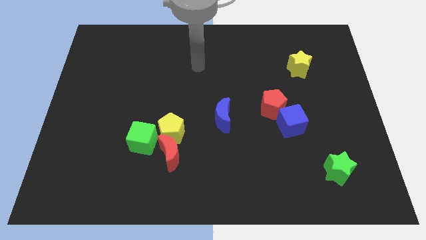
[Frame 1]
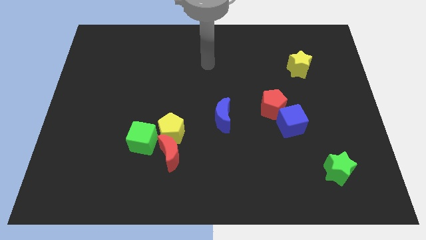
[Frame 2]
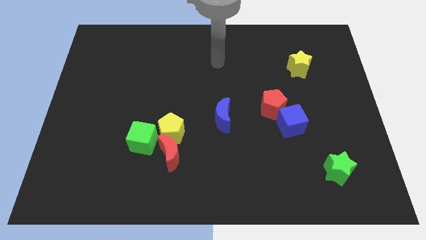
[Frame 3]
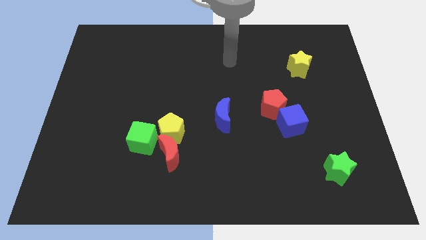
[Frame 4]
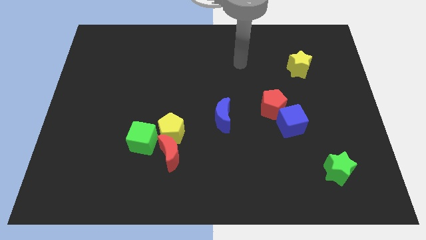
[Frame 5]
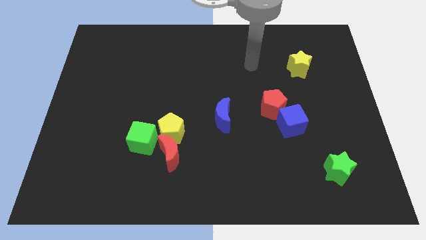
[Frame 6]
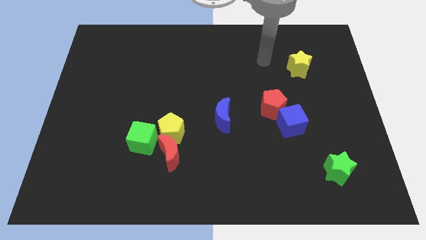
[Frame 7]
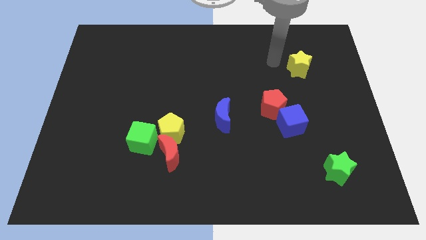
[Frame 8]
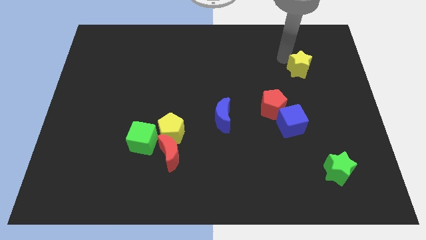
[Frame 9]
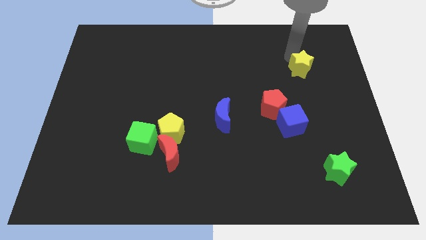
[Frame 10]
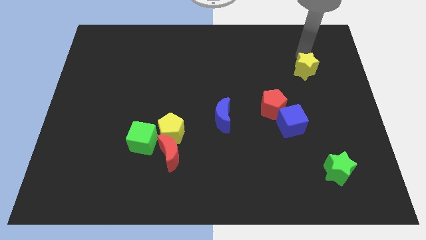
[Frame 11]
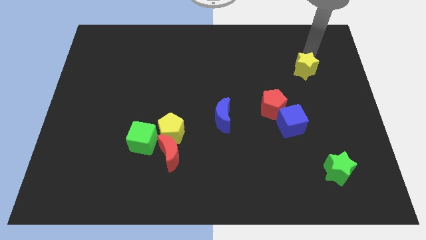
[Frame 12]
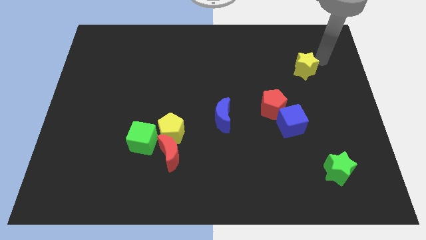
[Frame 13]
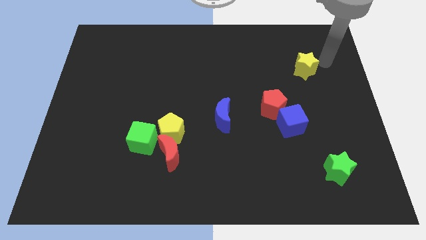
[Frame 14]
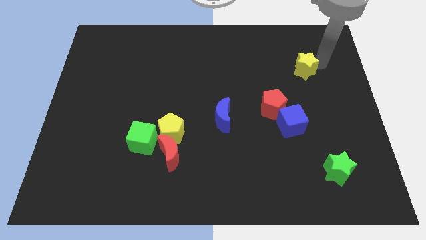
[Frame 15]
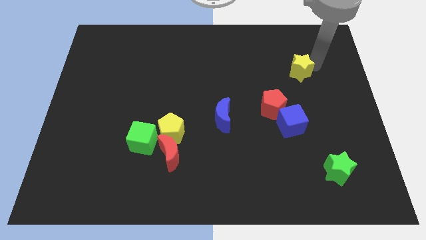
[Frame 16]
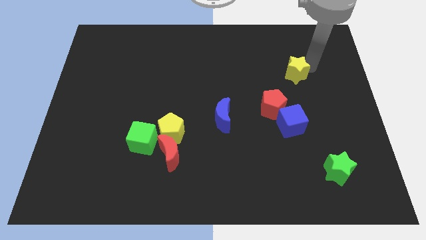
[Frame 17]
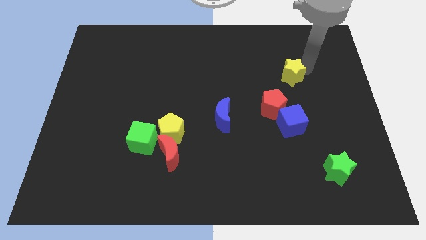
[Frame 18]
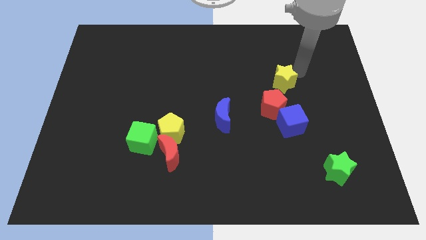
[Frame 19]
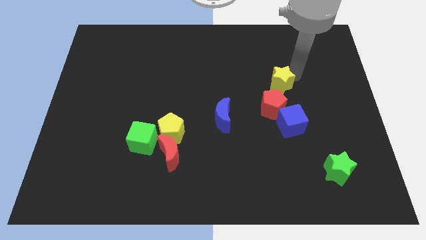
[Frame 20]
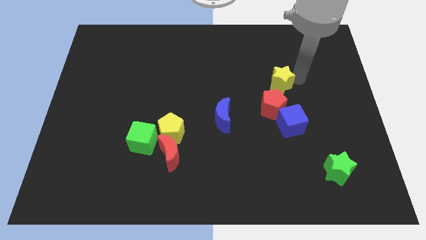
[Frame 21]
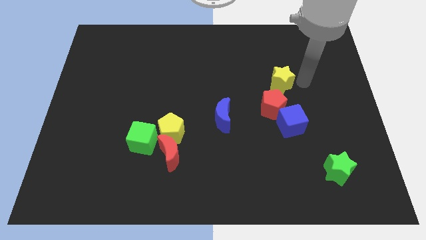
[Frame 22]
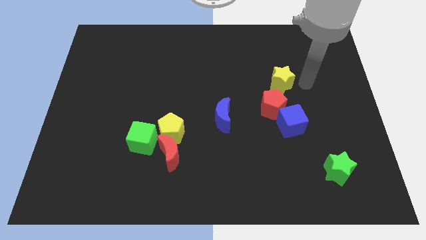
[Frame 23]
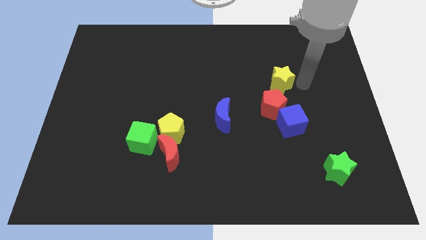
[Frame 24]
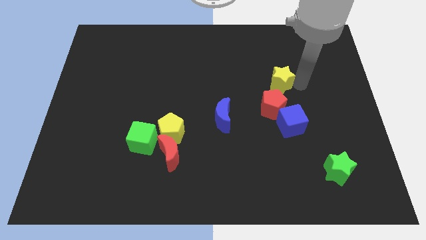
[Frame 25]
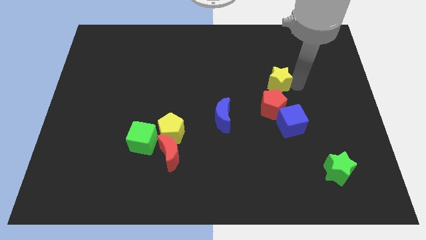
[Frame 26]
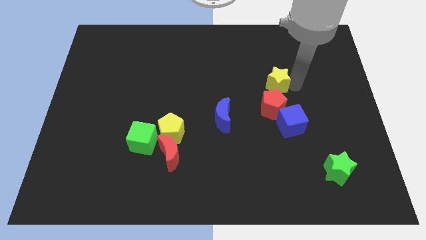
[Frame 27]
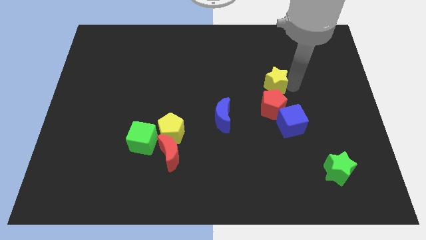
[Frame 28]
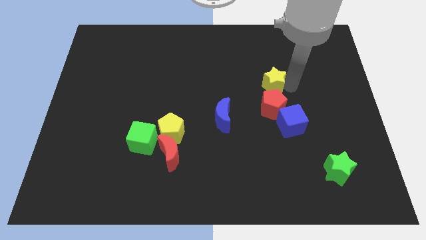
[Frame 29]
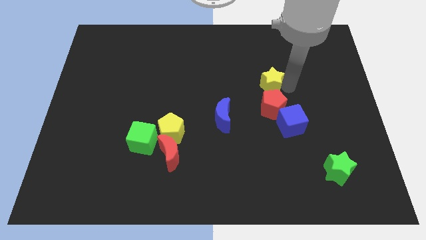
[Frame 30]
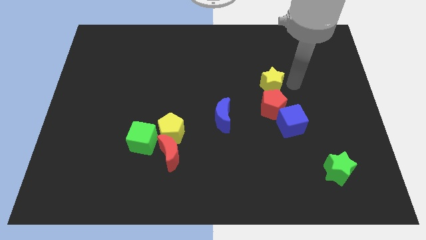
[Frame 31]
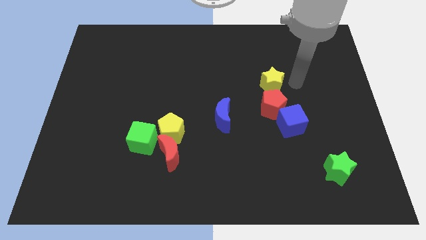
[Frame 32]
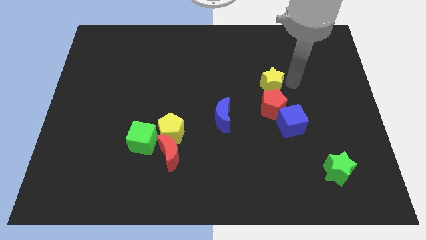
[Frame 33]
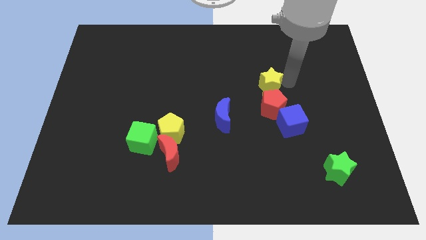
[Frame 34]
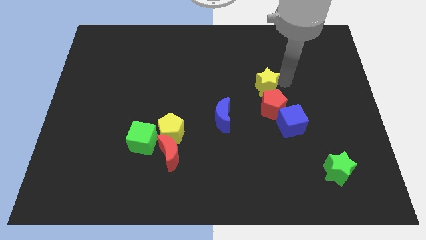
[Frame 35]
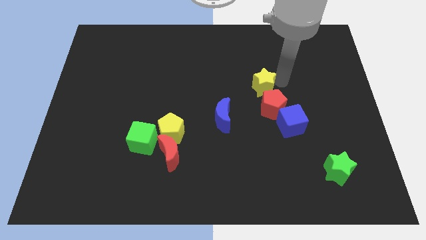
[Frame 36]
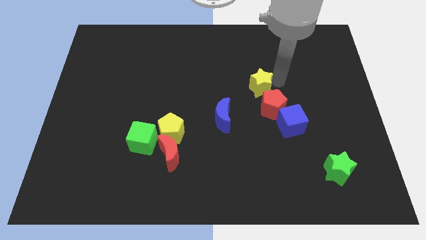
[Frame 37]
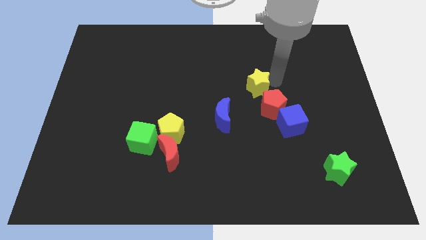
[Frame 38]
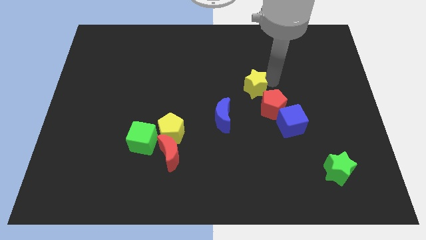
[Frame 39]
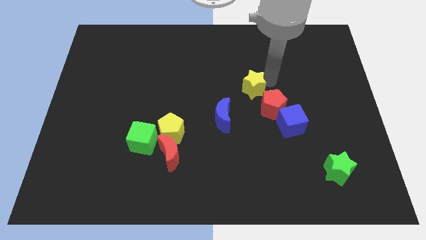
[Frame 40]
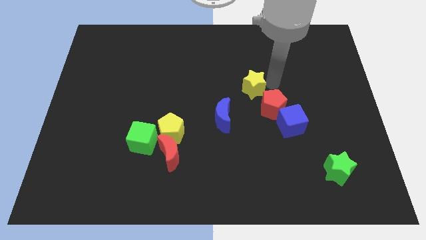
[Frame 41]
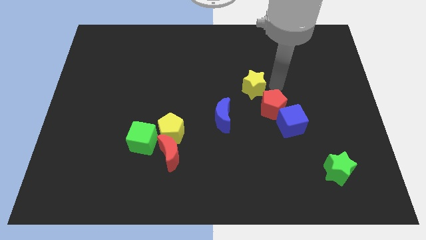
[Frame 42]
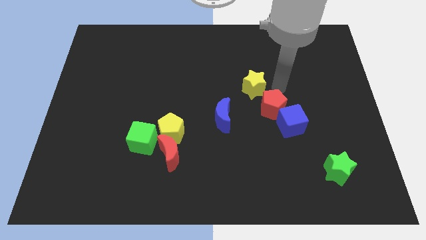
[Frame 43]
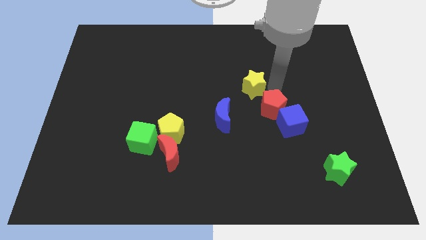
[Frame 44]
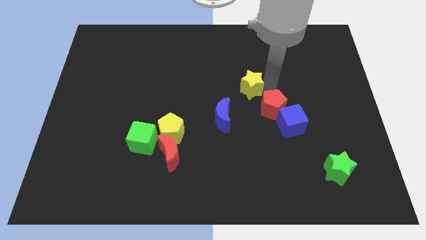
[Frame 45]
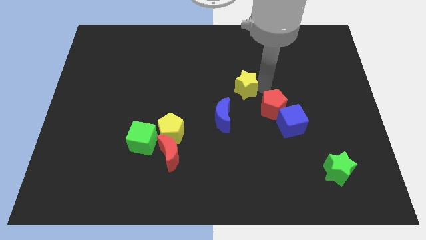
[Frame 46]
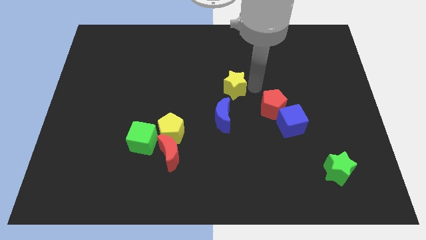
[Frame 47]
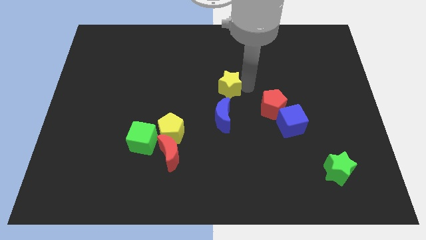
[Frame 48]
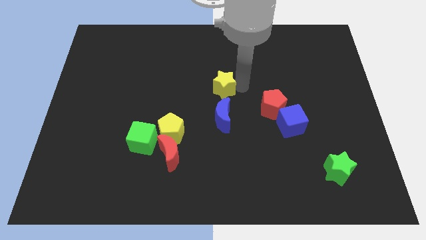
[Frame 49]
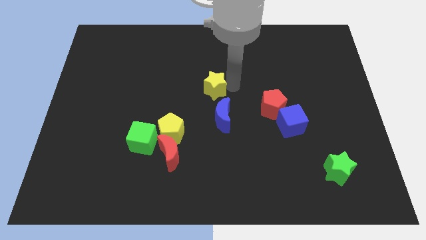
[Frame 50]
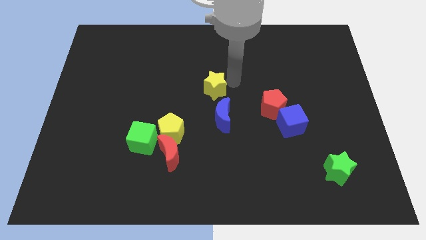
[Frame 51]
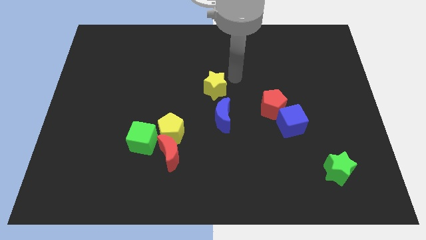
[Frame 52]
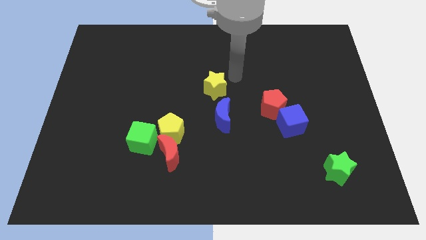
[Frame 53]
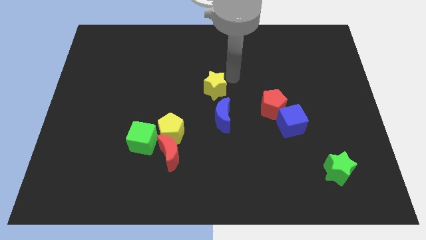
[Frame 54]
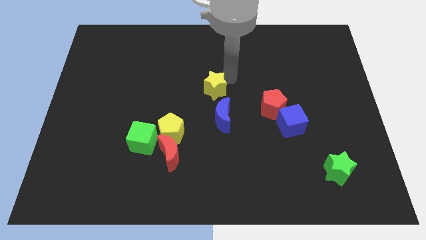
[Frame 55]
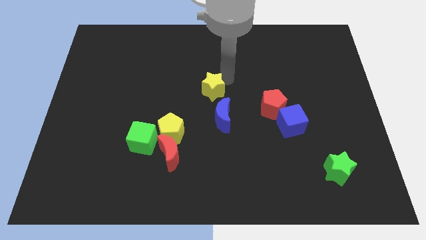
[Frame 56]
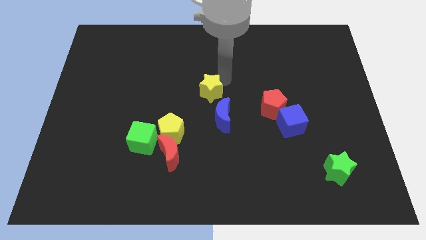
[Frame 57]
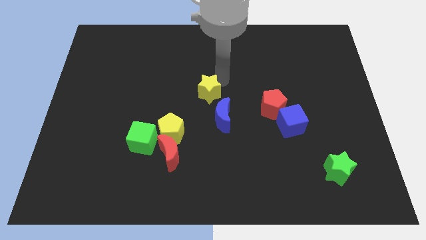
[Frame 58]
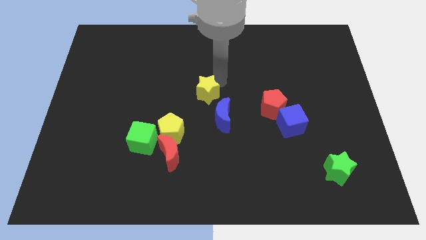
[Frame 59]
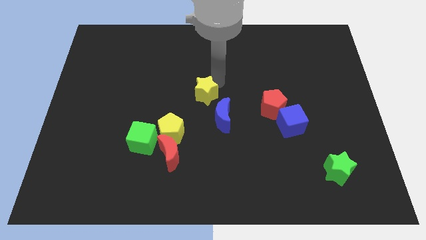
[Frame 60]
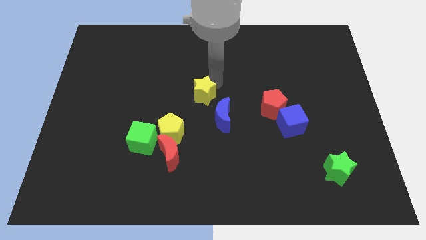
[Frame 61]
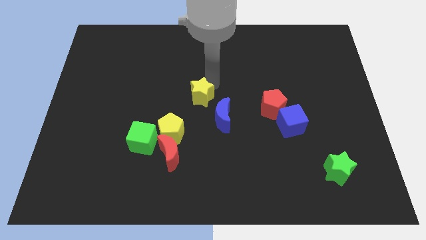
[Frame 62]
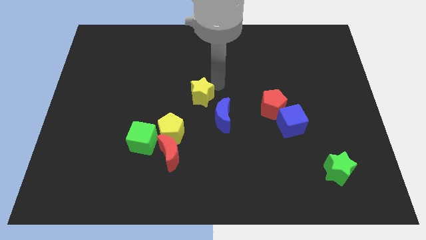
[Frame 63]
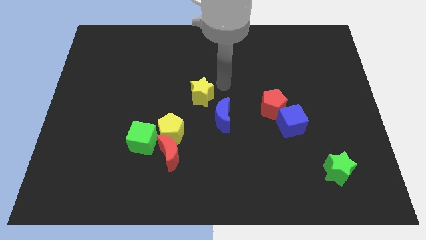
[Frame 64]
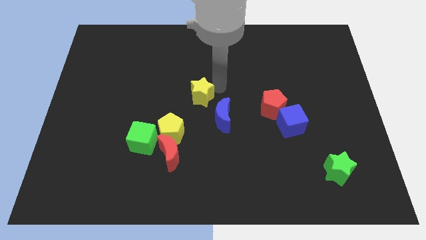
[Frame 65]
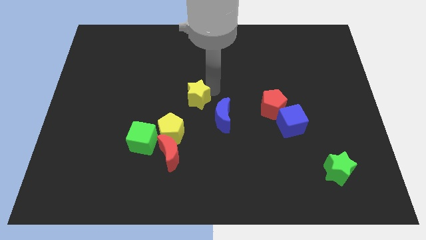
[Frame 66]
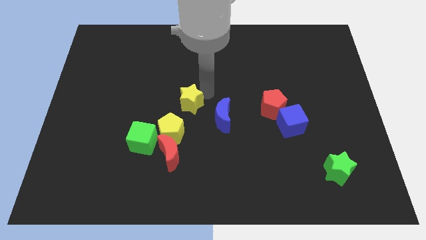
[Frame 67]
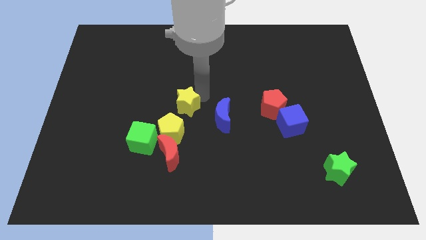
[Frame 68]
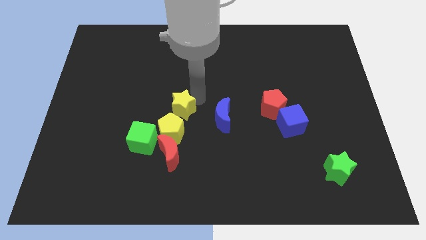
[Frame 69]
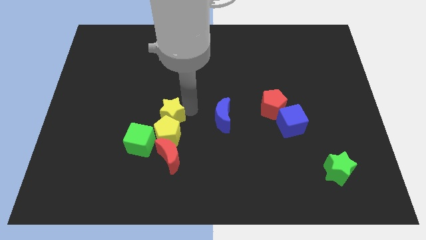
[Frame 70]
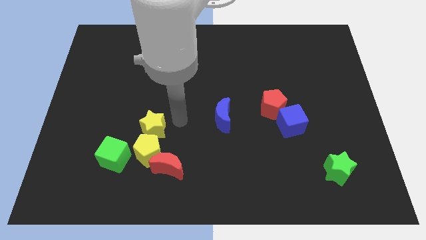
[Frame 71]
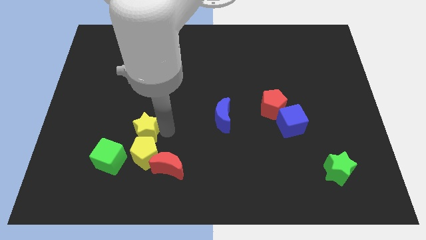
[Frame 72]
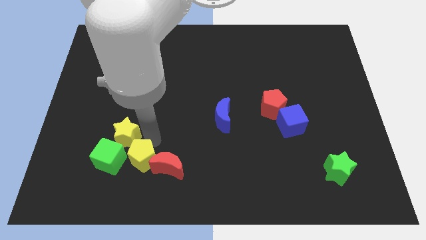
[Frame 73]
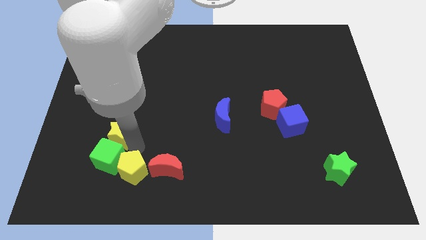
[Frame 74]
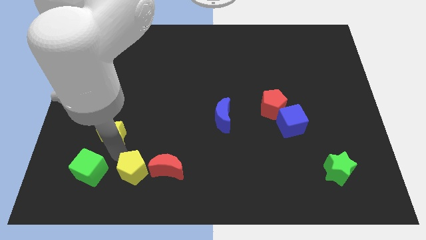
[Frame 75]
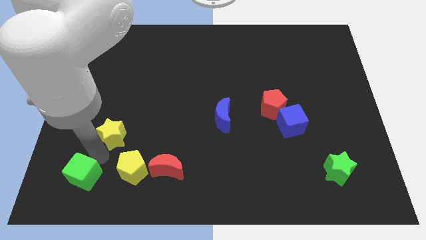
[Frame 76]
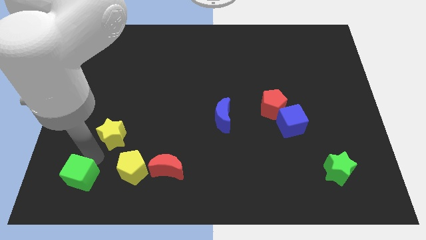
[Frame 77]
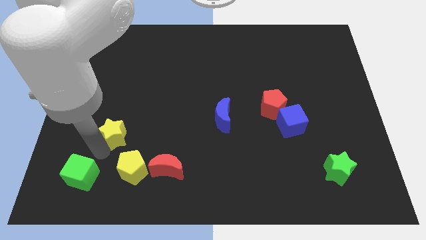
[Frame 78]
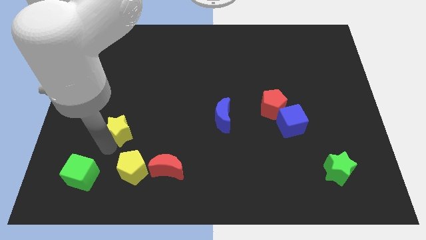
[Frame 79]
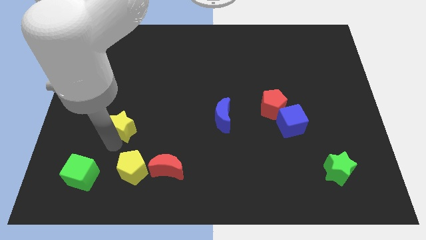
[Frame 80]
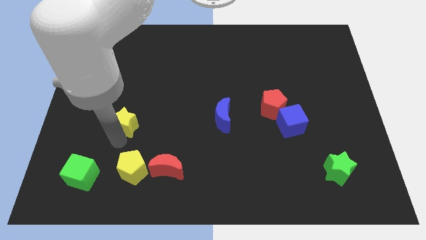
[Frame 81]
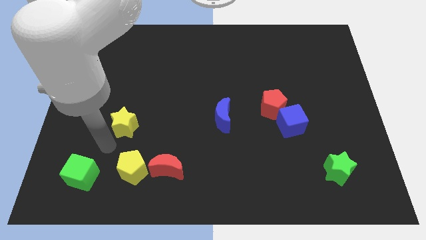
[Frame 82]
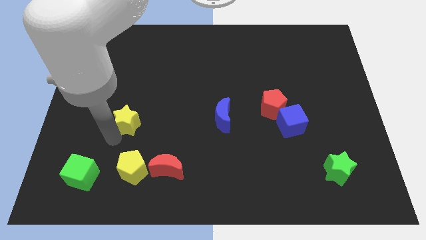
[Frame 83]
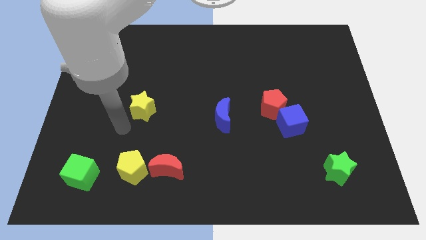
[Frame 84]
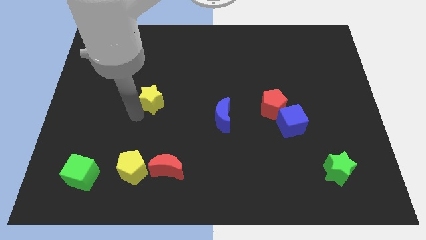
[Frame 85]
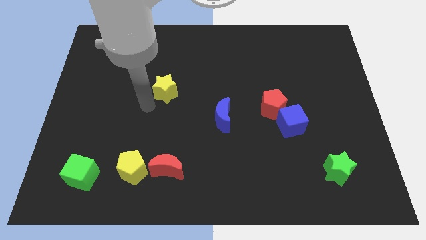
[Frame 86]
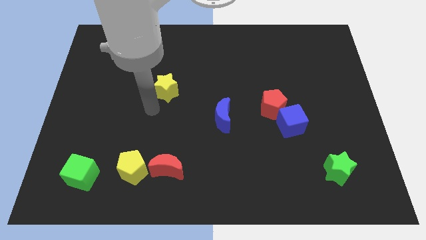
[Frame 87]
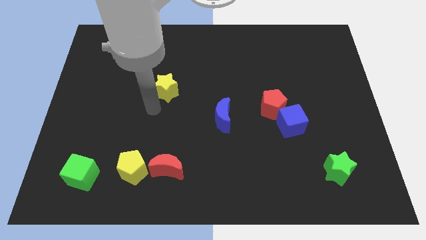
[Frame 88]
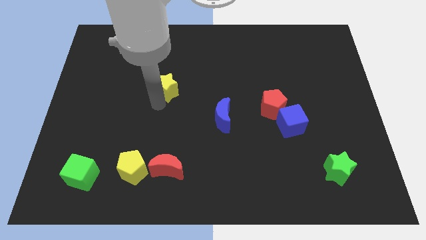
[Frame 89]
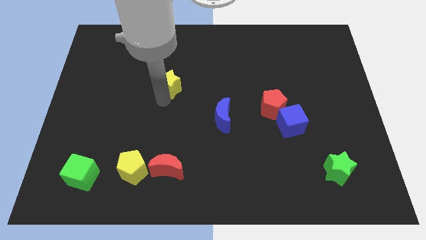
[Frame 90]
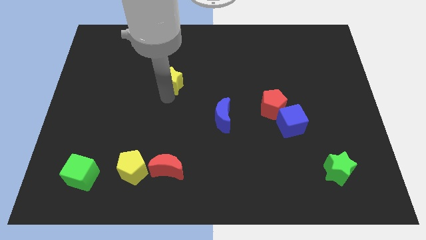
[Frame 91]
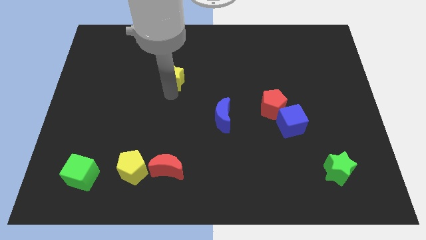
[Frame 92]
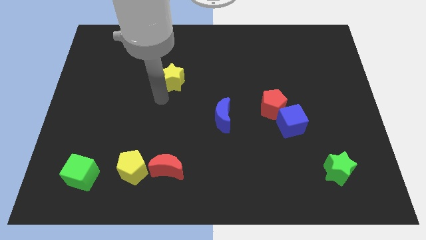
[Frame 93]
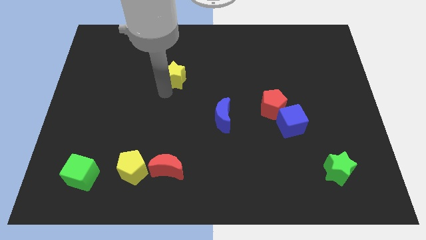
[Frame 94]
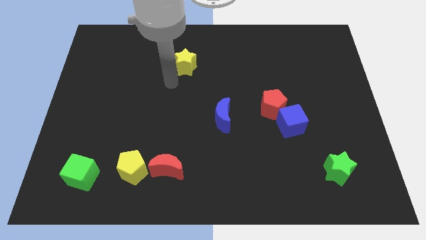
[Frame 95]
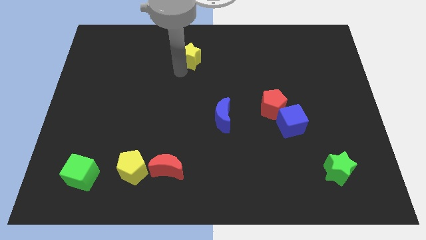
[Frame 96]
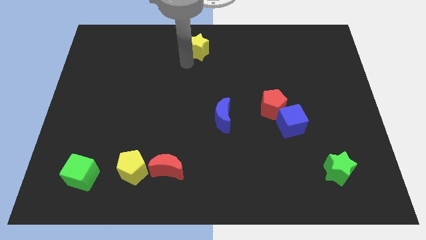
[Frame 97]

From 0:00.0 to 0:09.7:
put the yellow star to the top
